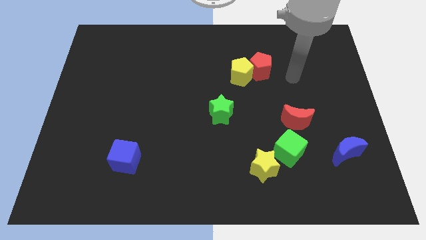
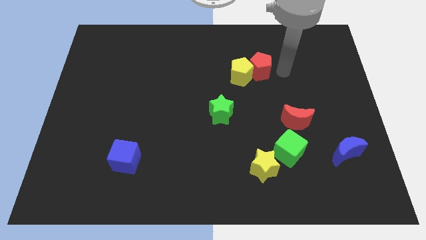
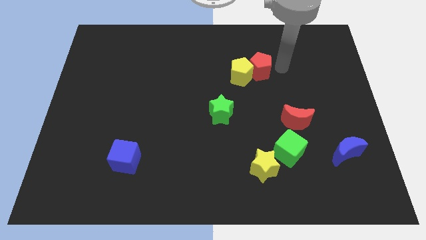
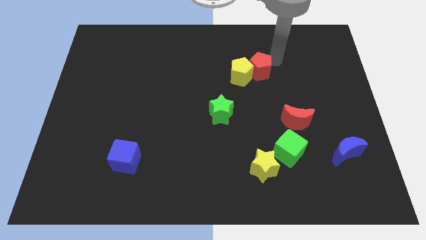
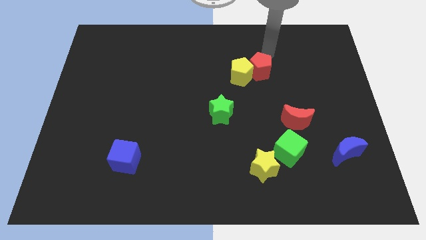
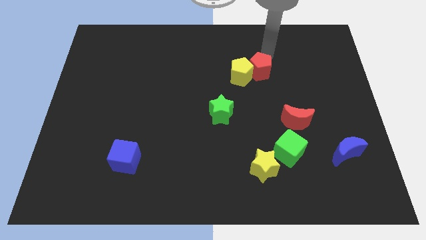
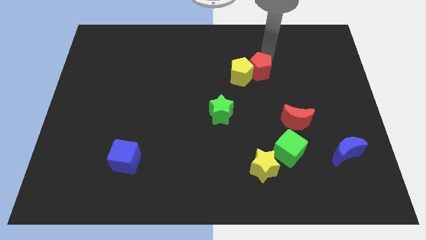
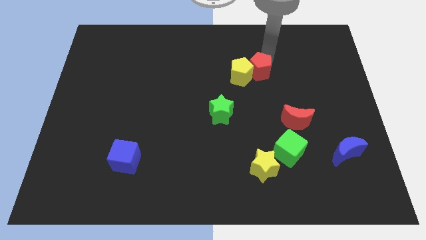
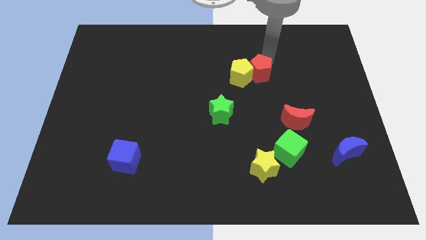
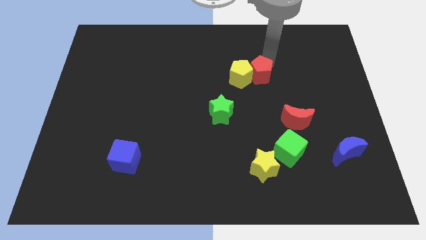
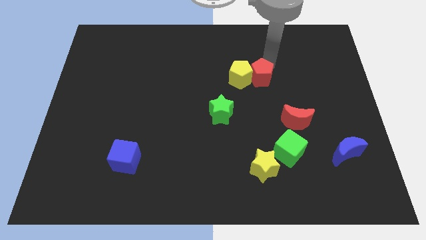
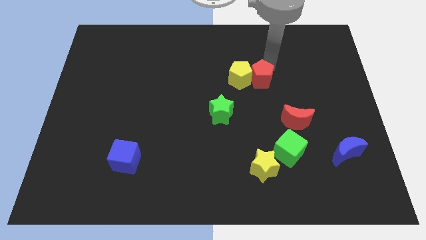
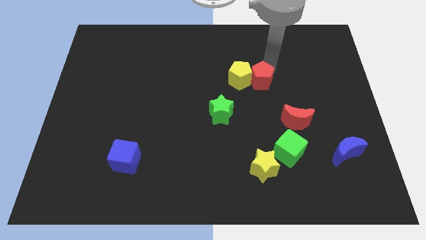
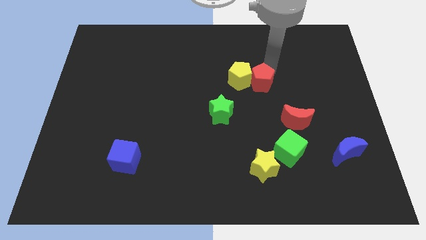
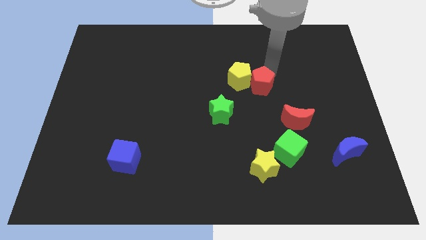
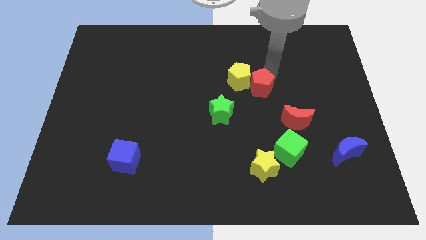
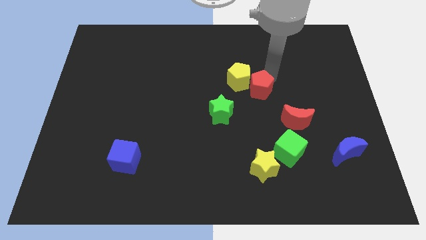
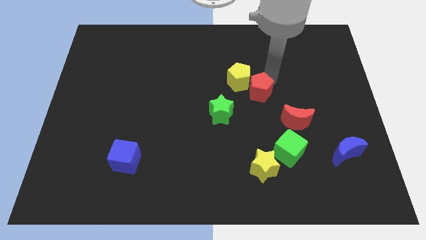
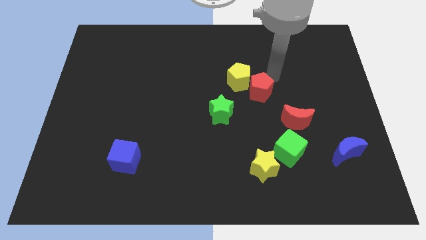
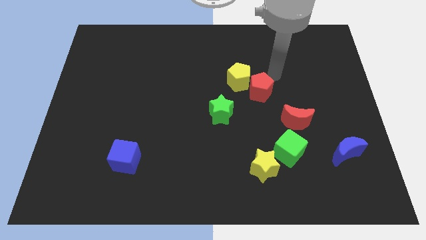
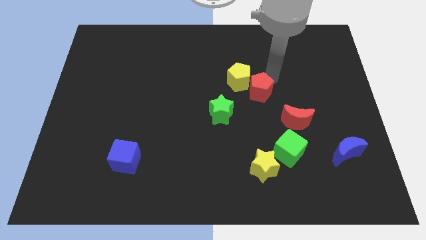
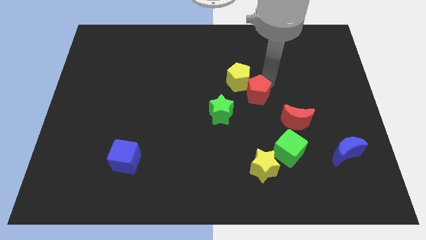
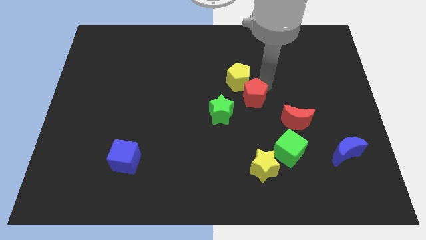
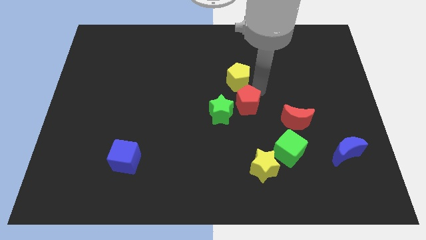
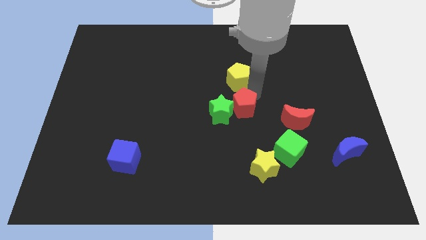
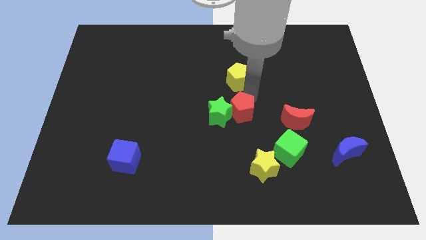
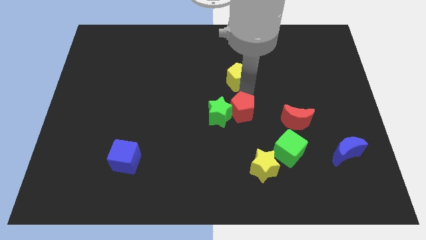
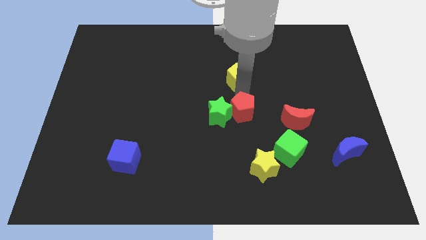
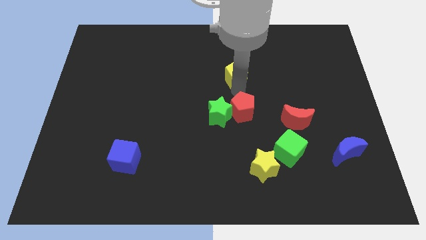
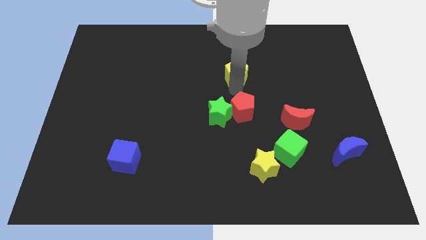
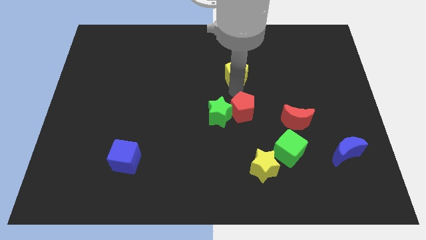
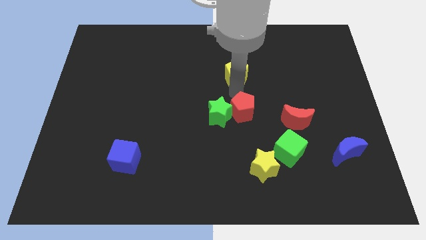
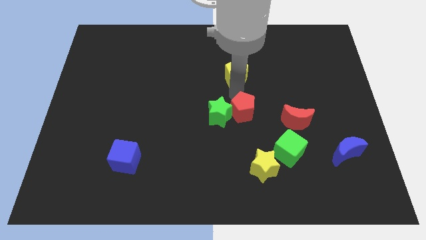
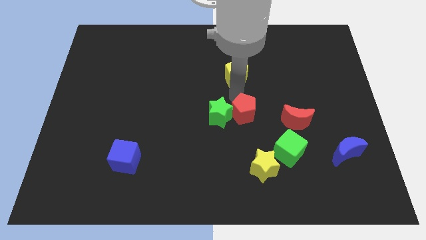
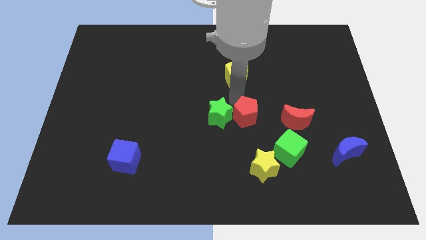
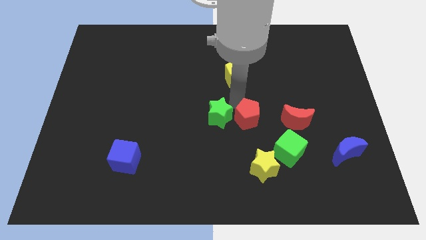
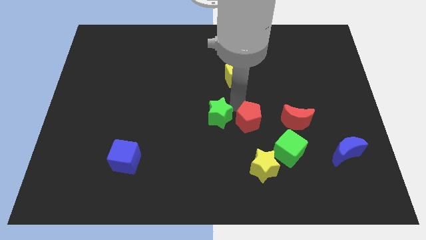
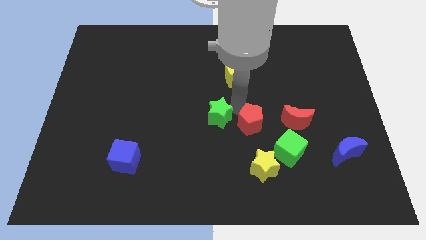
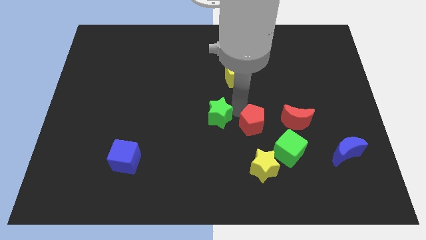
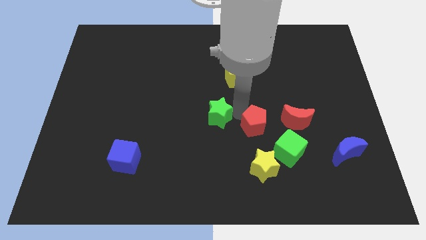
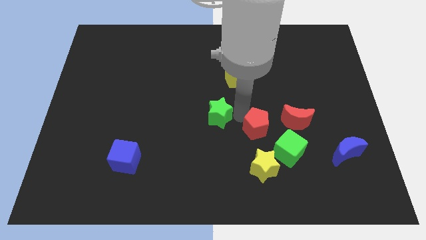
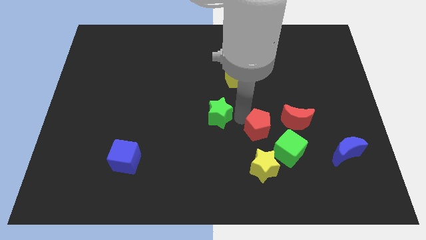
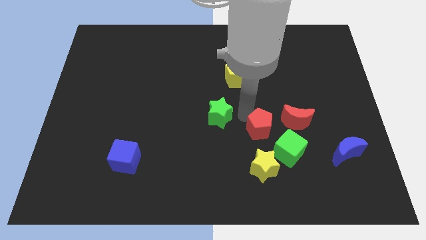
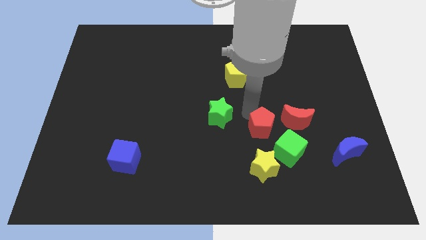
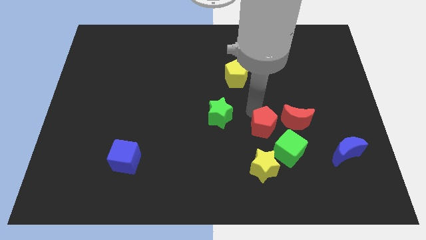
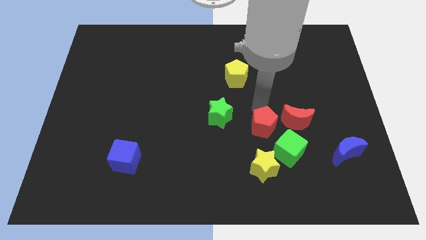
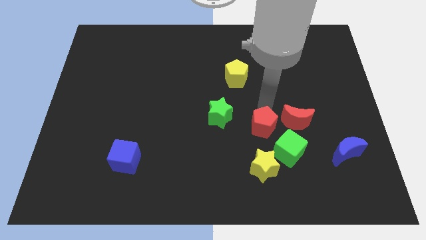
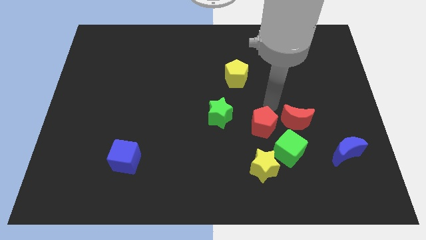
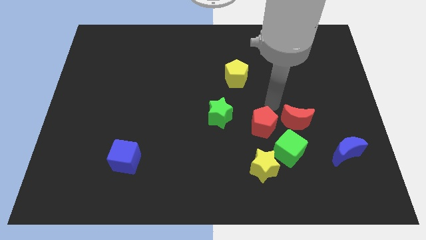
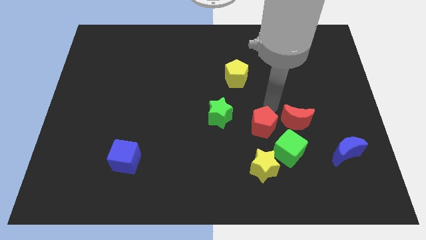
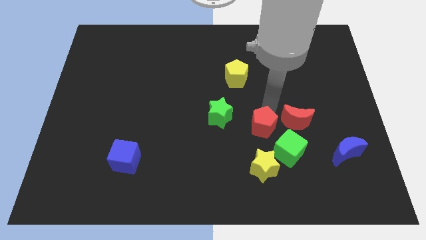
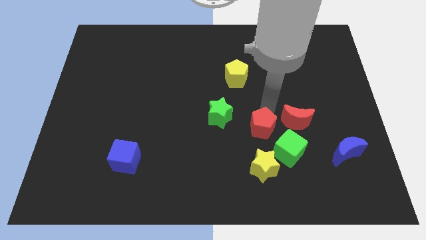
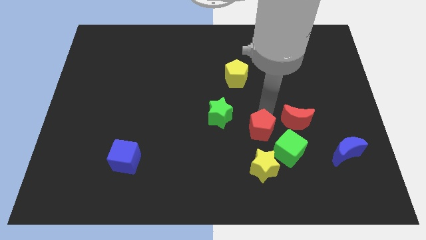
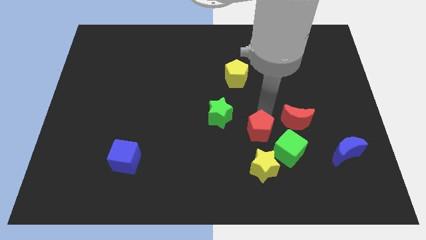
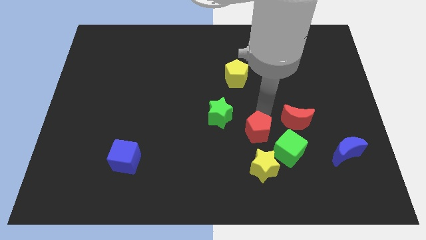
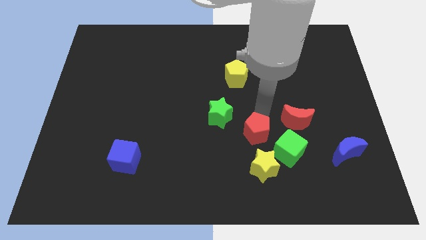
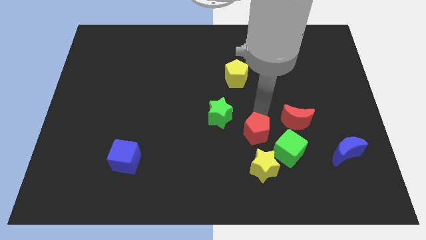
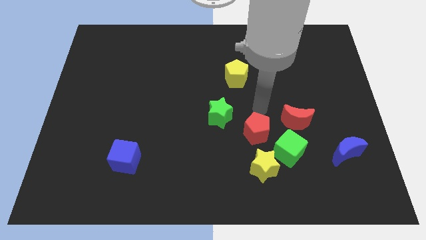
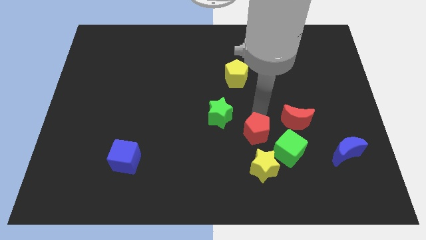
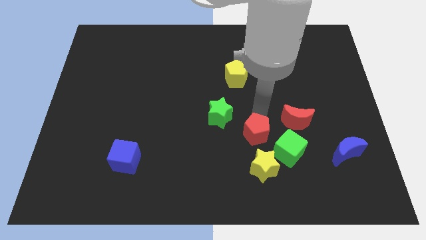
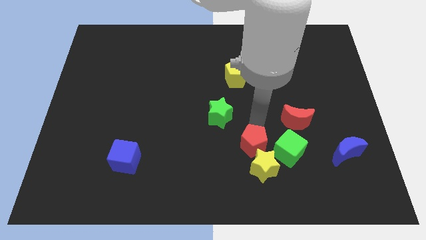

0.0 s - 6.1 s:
put the red pentagon towards the yellow star

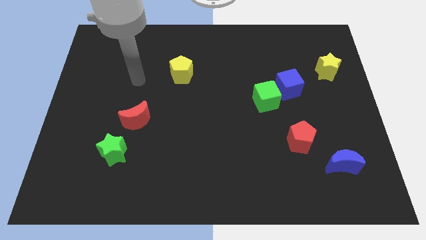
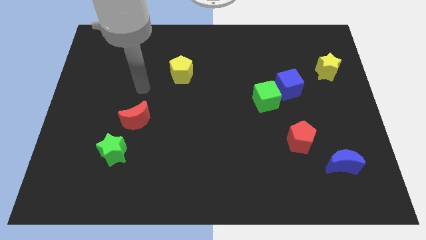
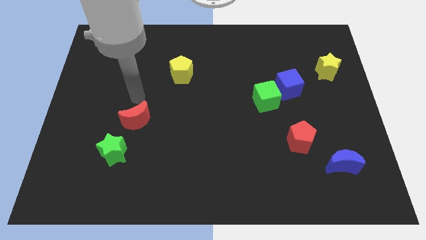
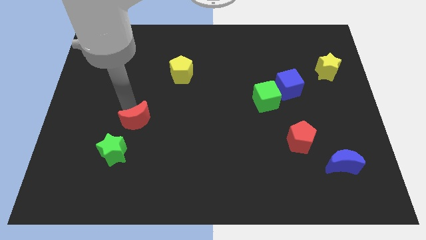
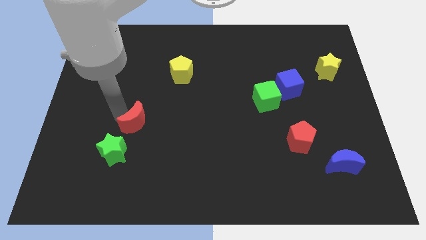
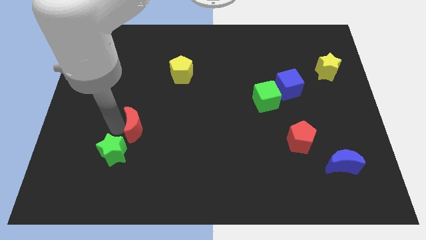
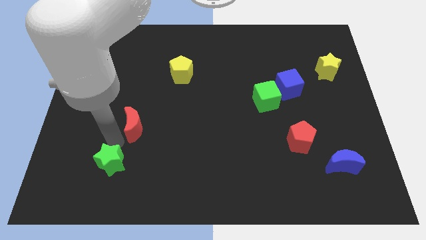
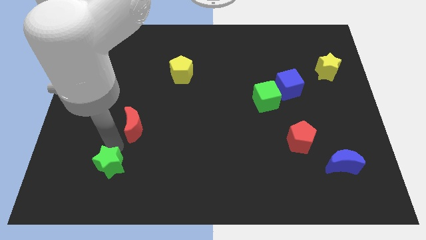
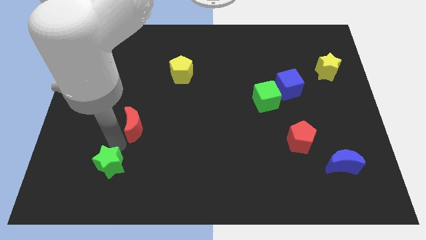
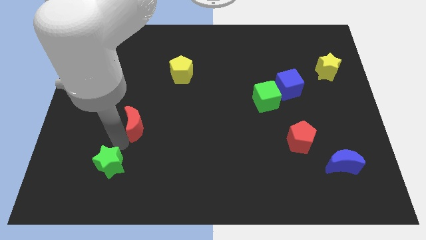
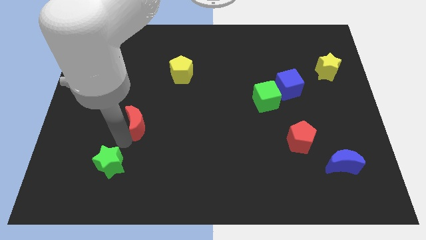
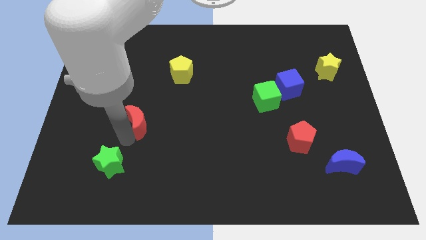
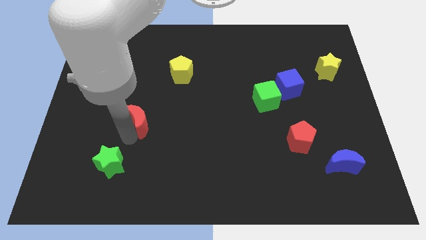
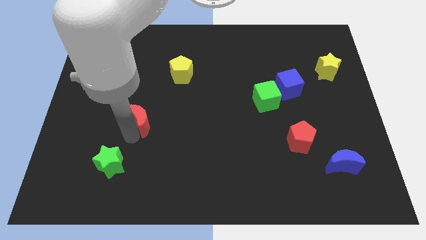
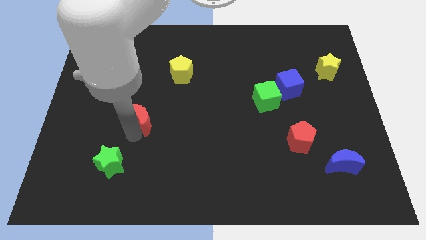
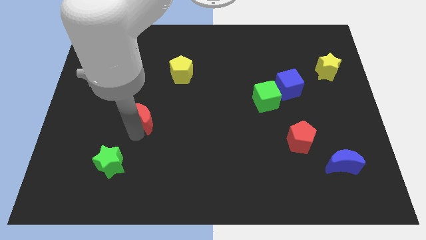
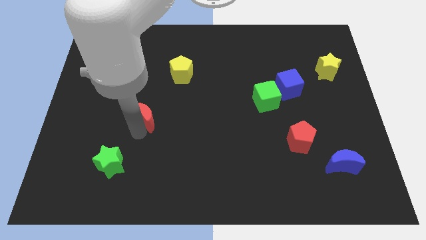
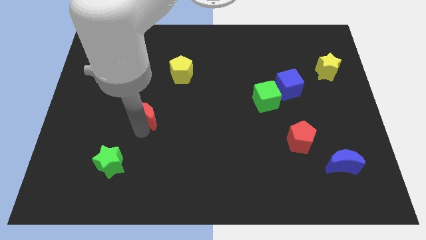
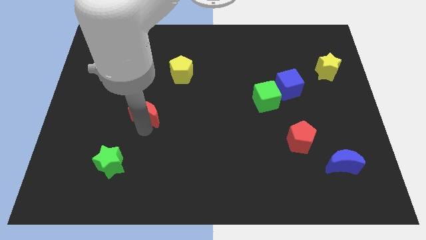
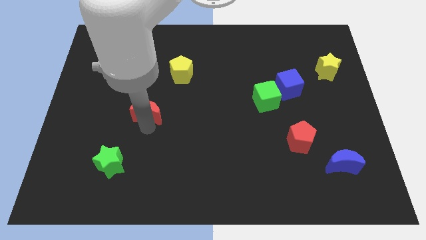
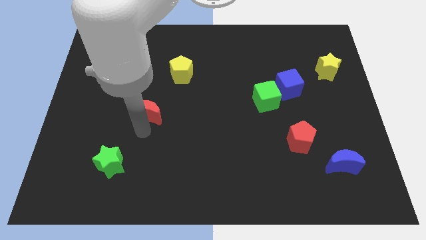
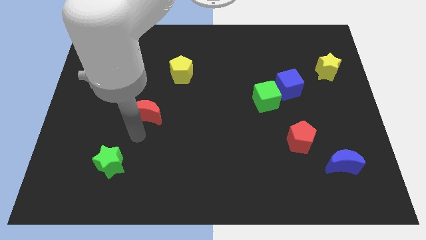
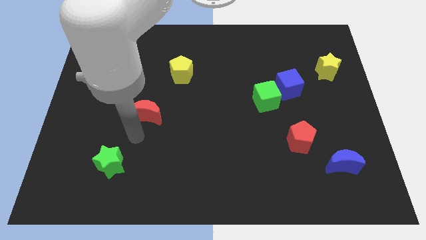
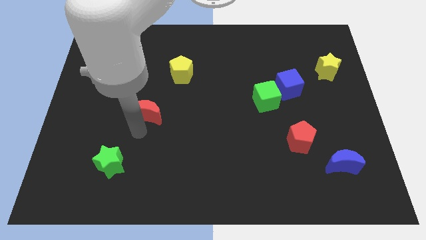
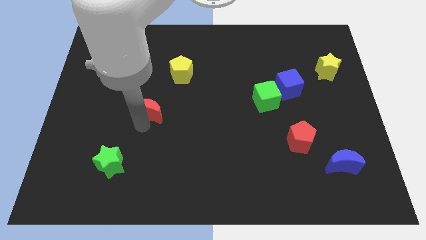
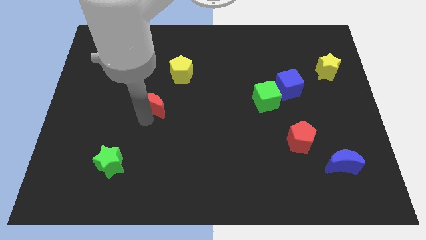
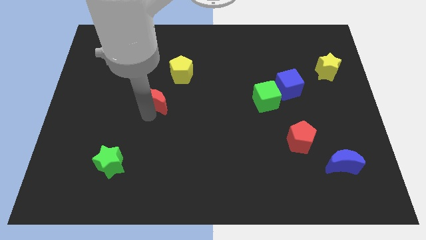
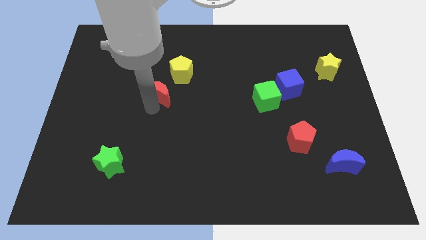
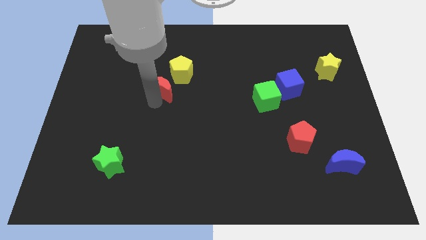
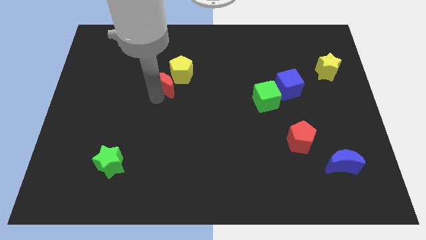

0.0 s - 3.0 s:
move the red moon next to the yellow pentagon
